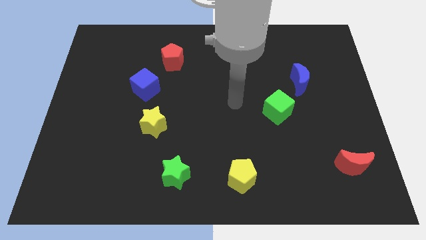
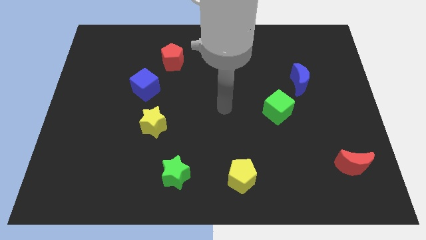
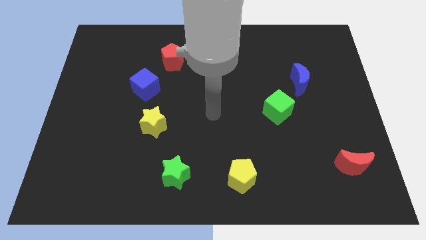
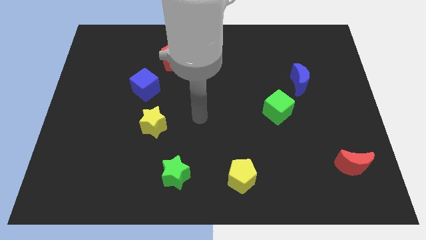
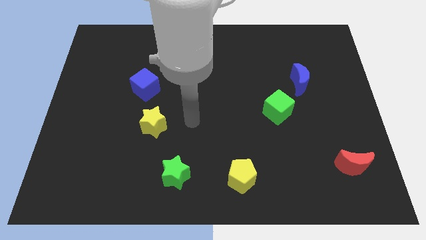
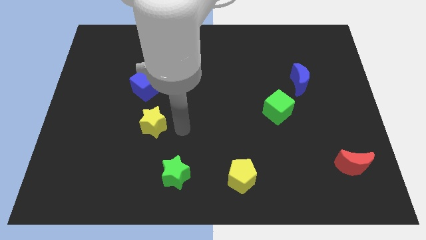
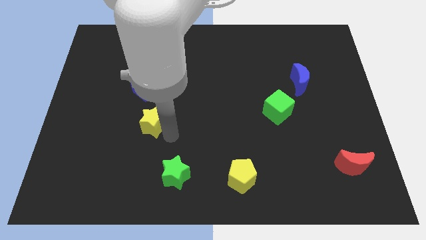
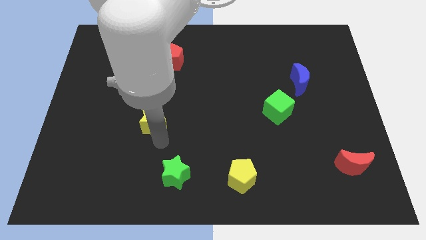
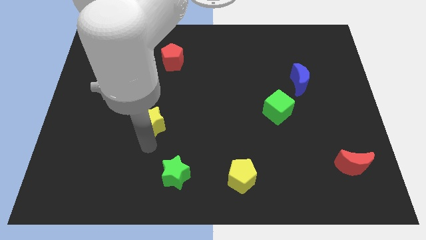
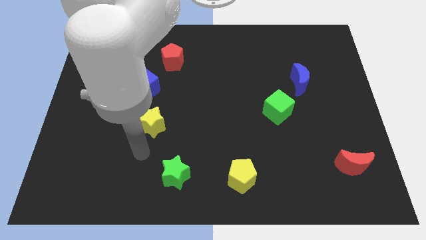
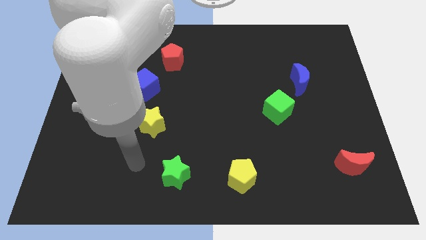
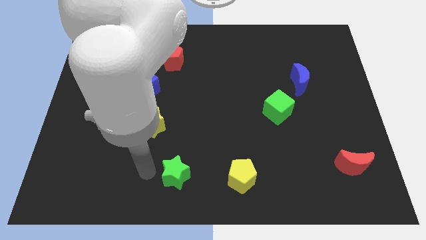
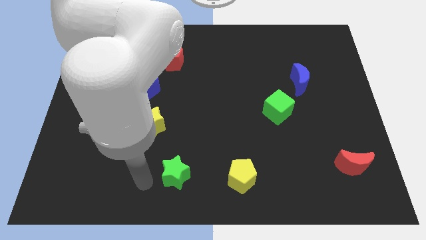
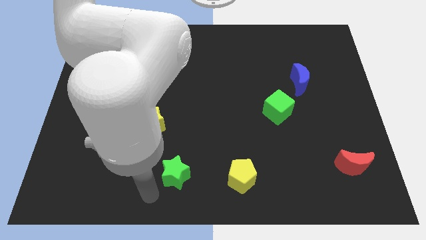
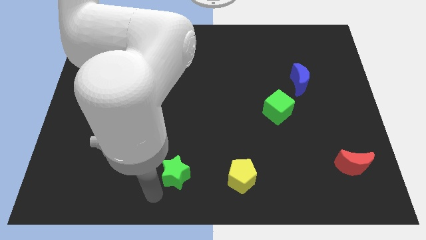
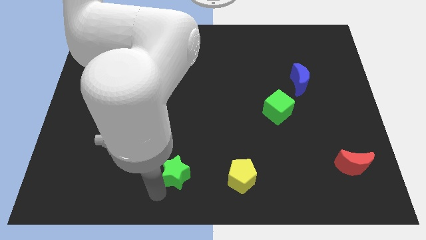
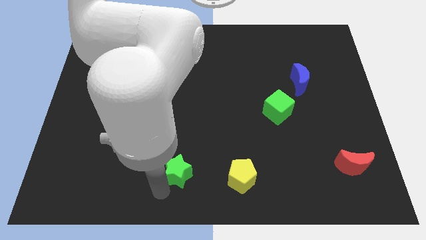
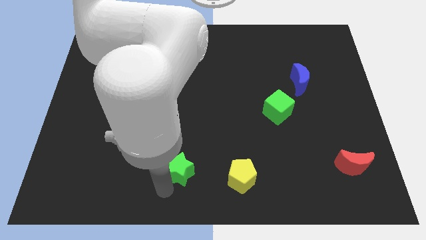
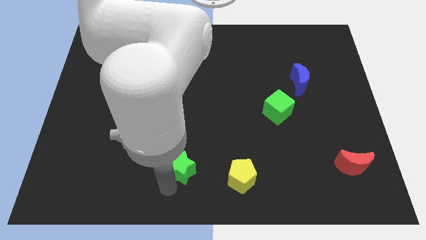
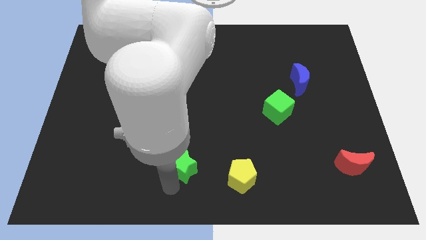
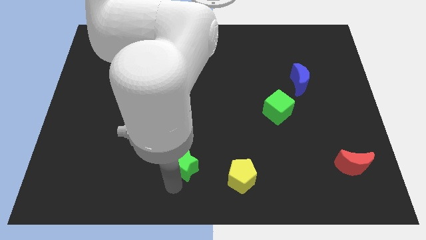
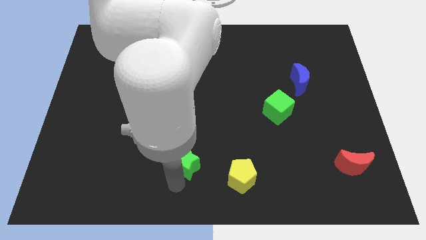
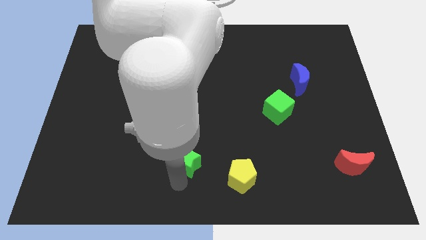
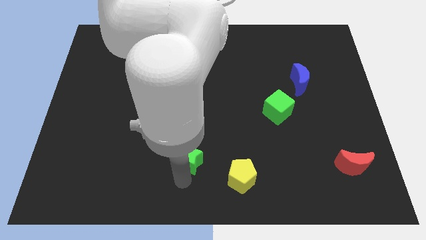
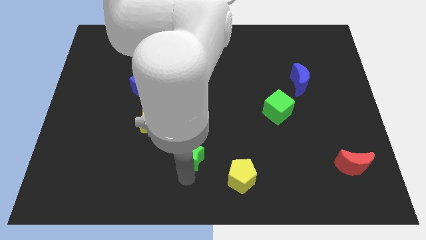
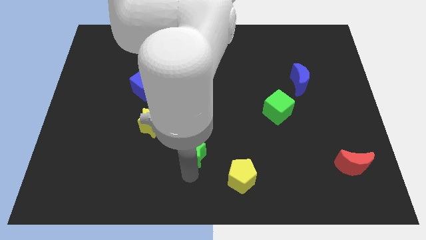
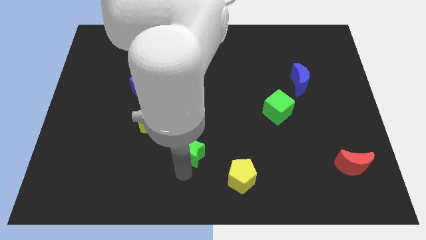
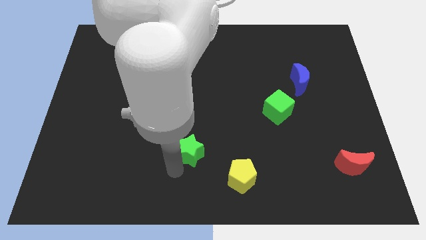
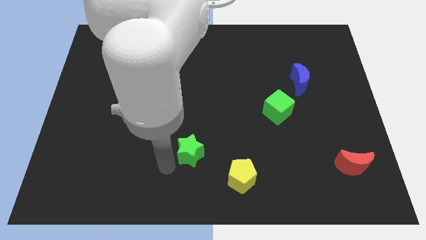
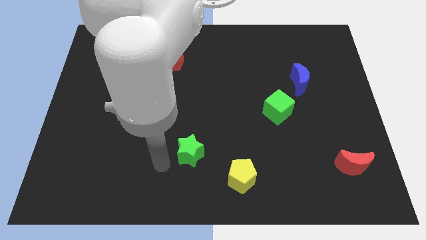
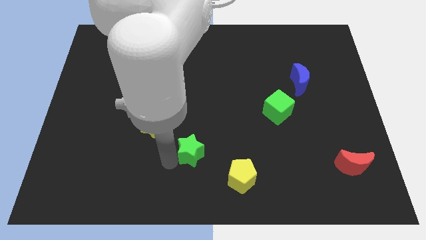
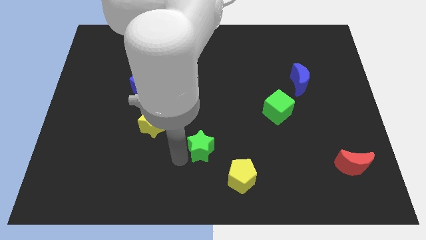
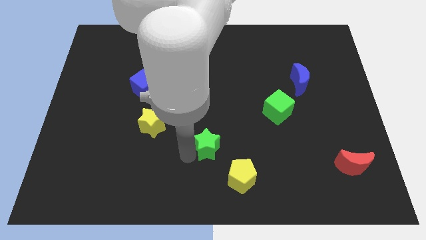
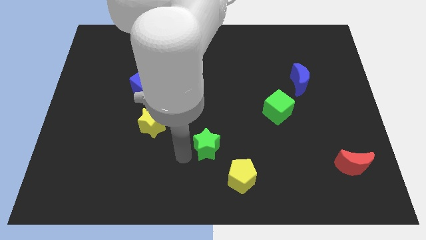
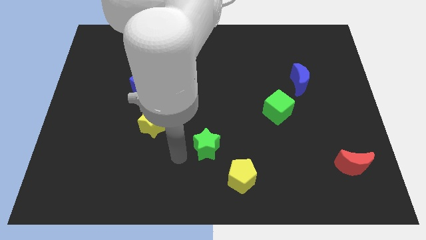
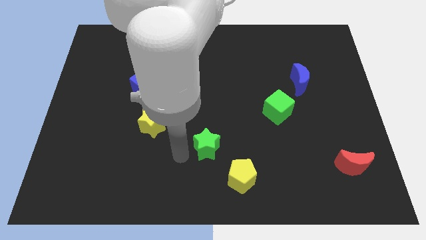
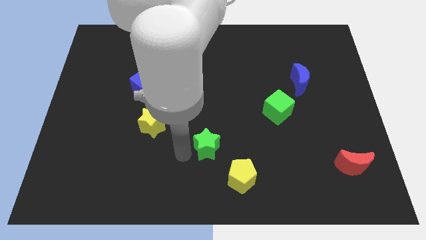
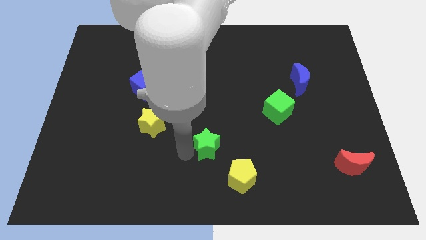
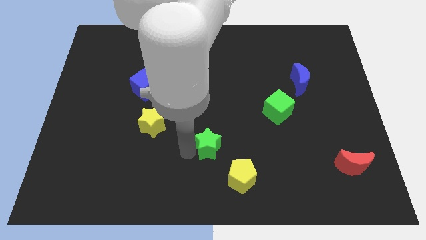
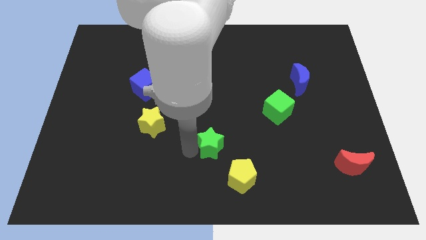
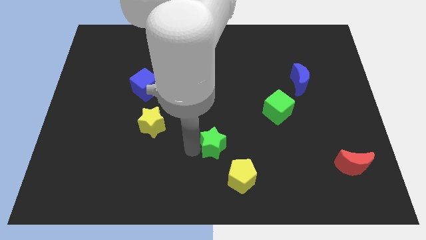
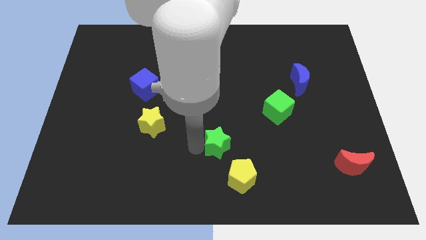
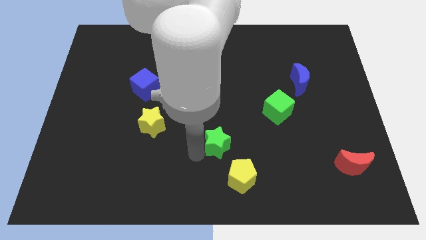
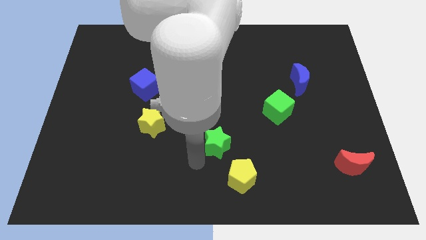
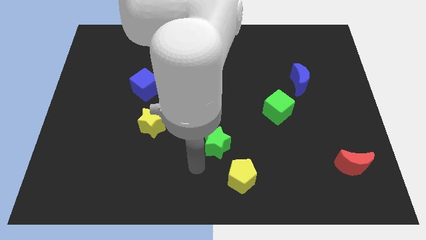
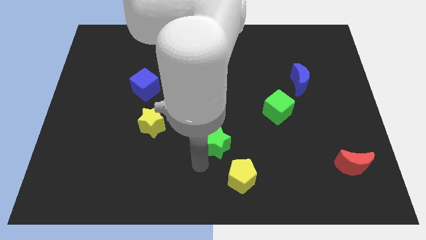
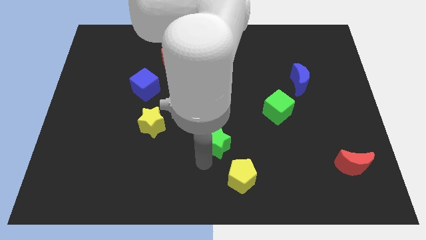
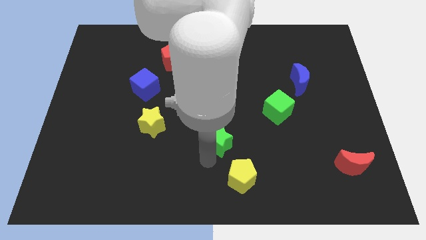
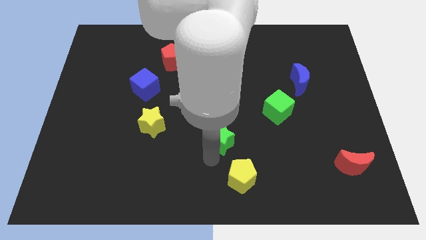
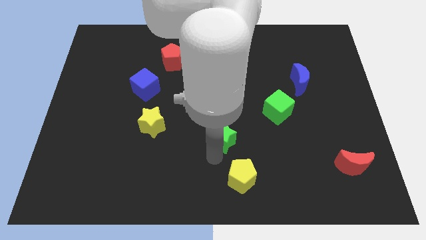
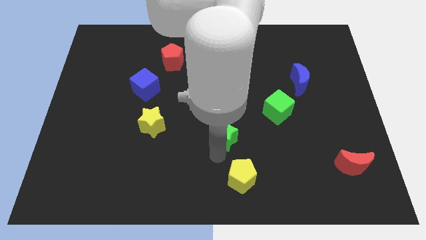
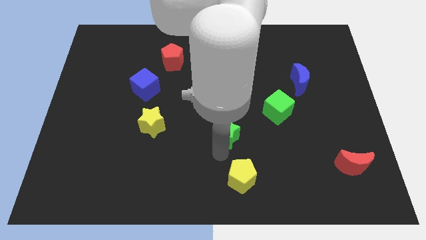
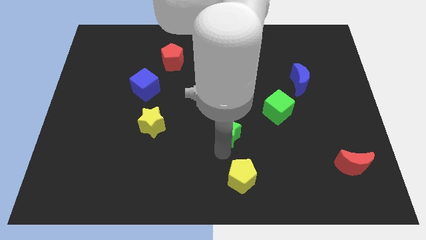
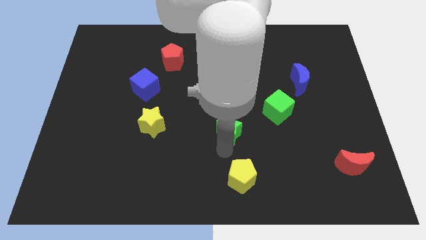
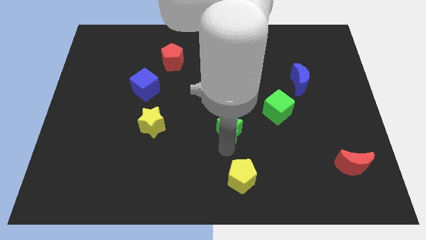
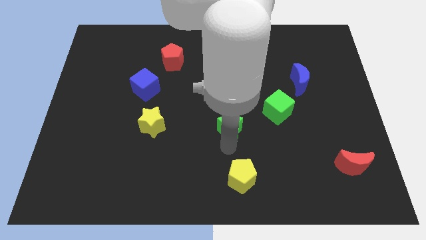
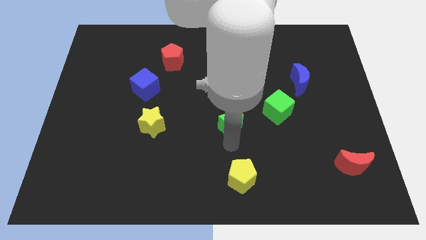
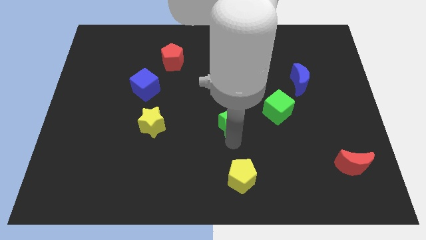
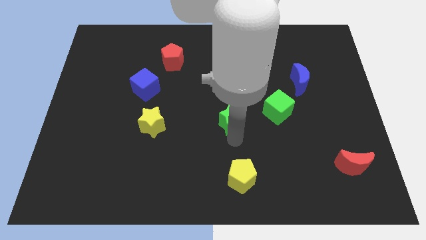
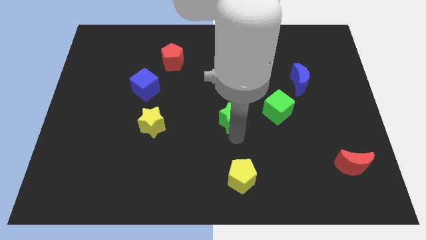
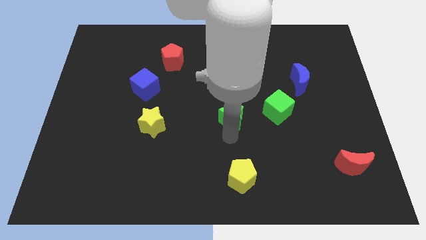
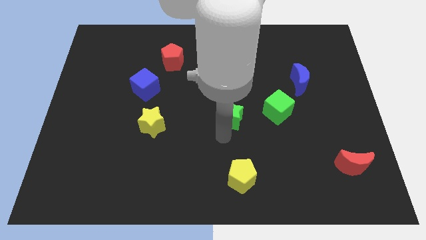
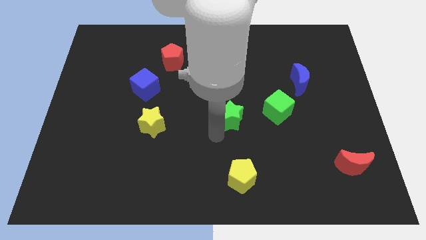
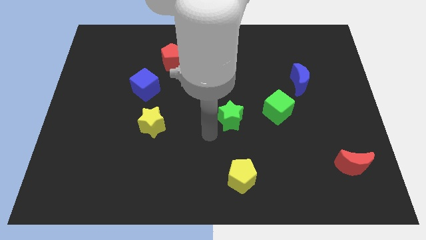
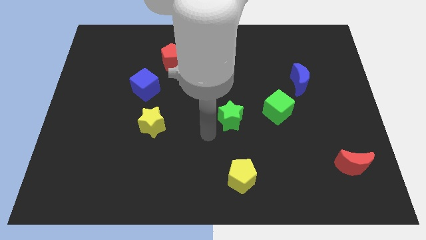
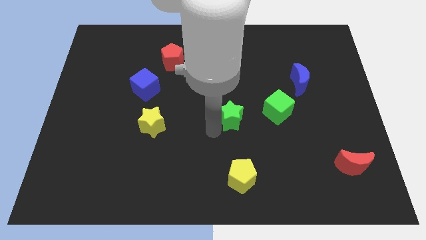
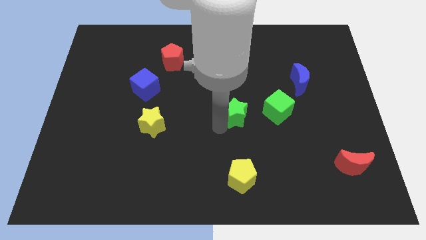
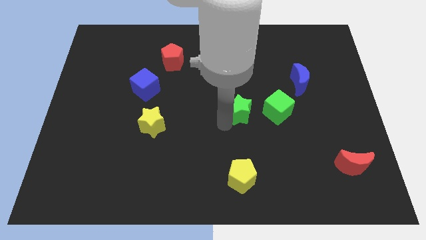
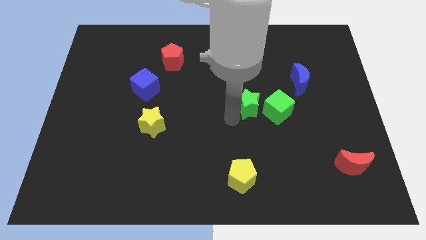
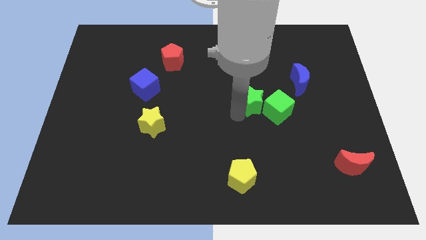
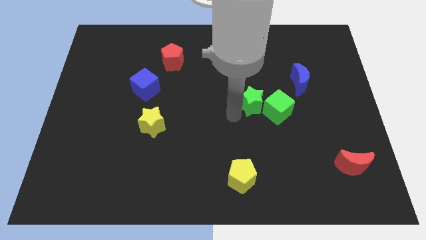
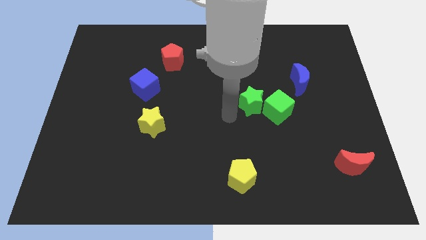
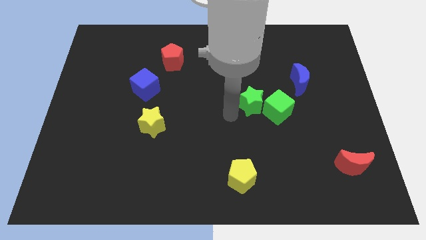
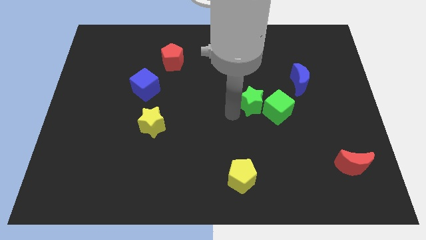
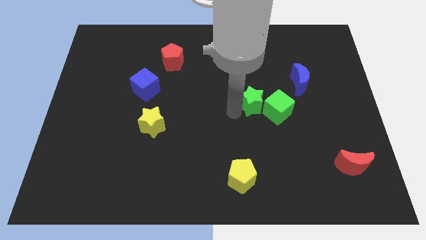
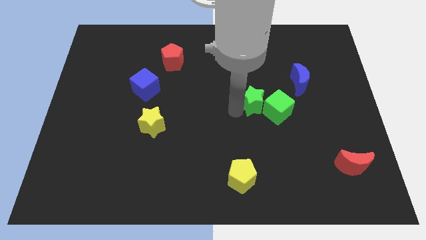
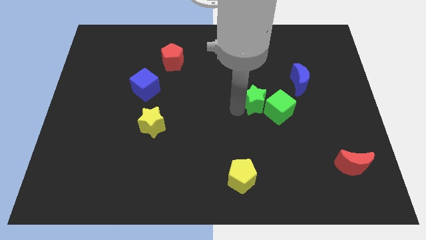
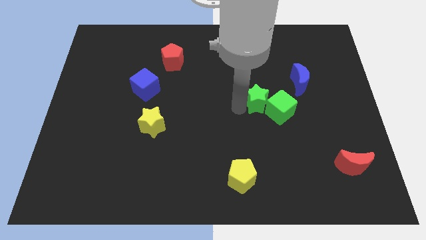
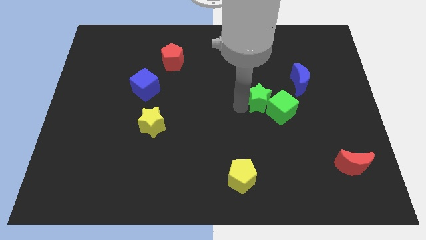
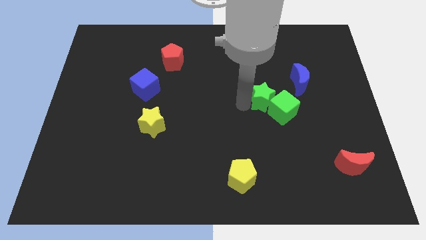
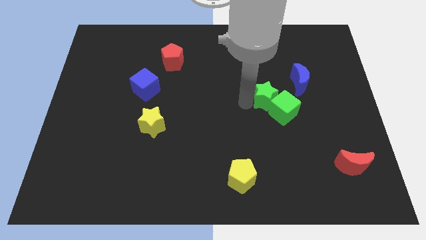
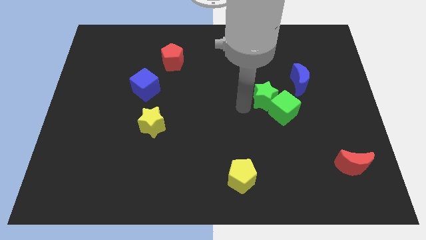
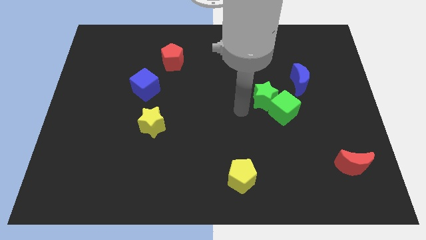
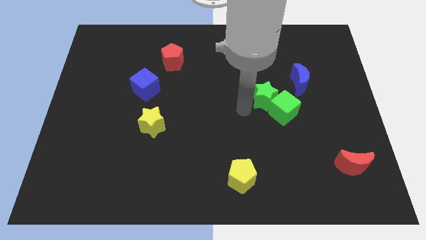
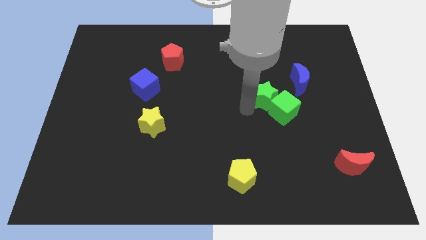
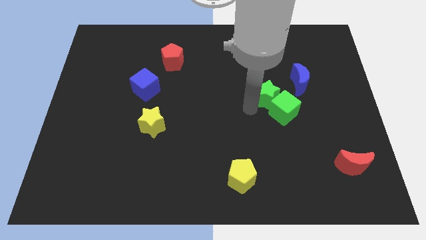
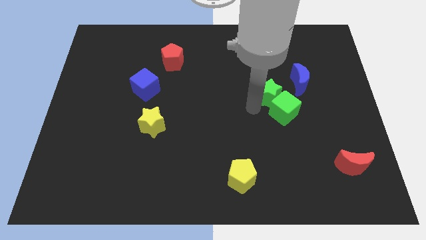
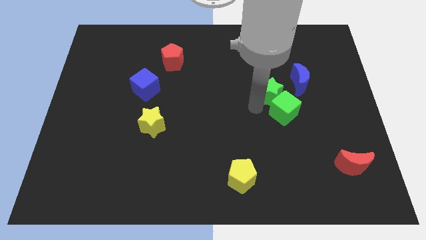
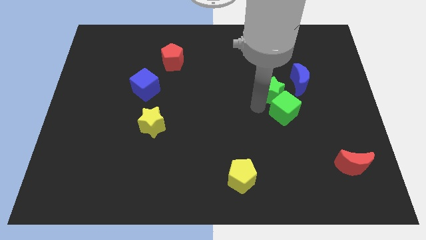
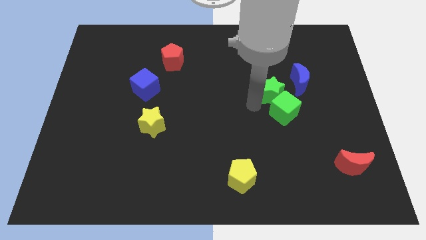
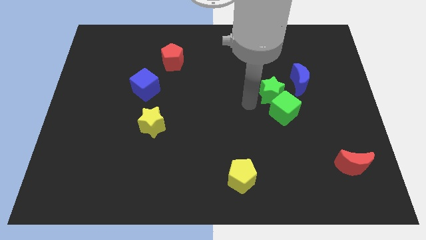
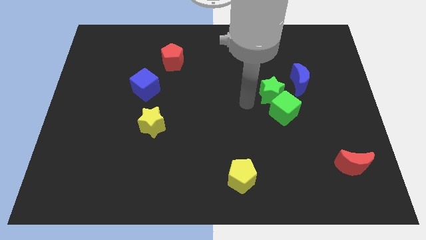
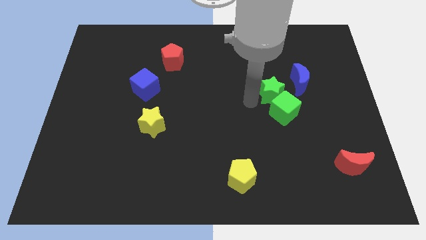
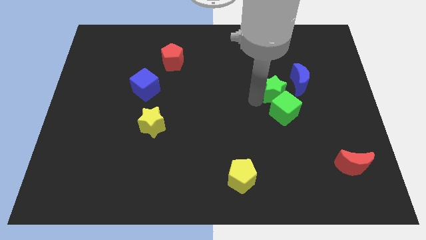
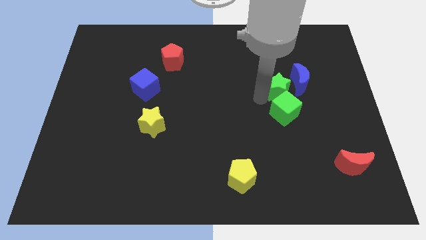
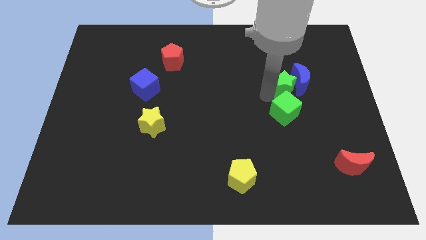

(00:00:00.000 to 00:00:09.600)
push the green star to the blue moon
